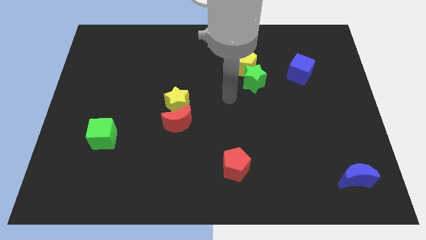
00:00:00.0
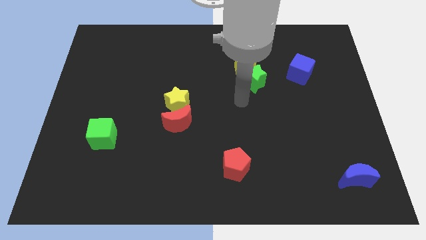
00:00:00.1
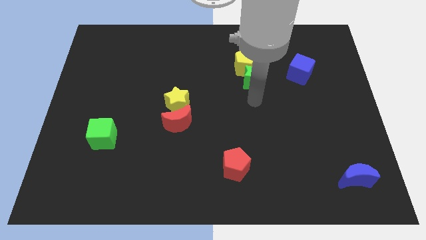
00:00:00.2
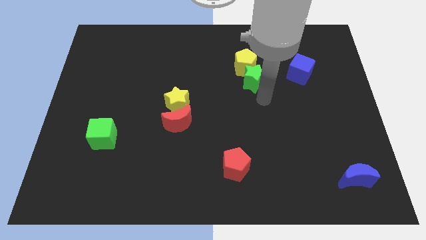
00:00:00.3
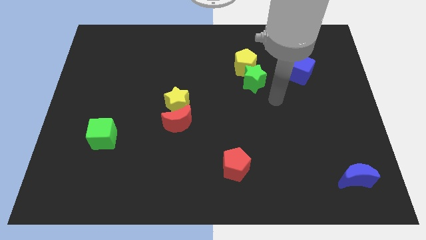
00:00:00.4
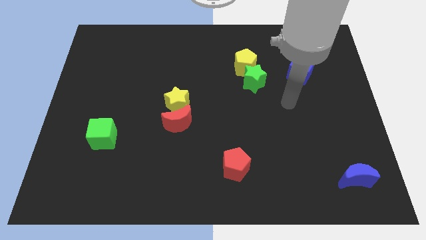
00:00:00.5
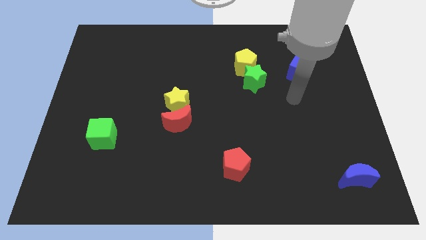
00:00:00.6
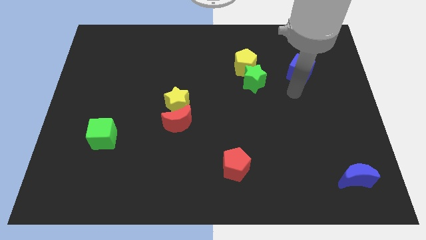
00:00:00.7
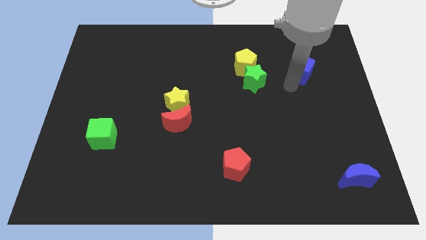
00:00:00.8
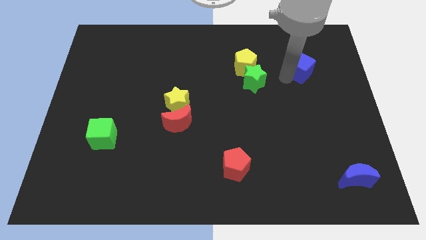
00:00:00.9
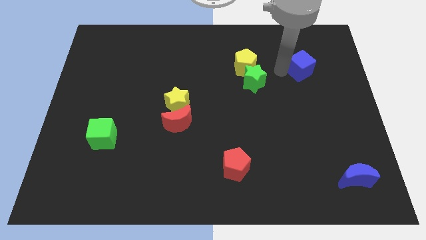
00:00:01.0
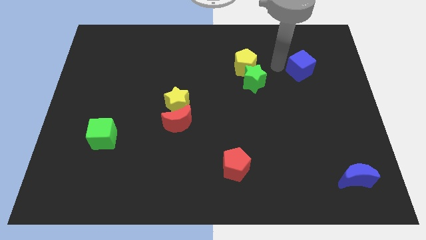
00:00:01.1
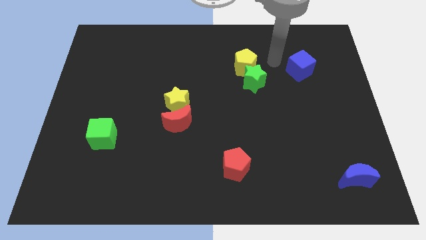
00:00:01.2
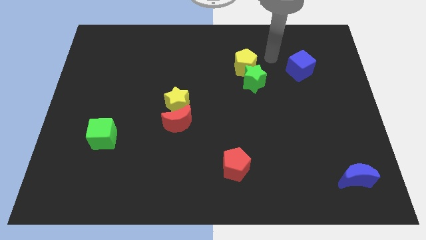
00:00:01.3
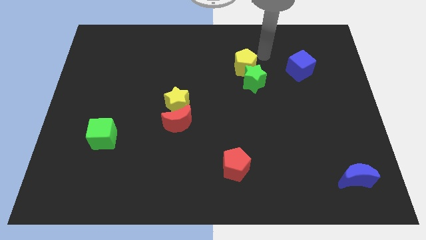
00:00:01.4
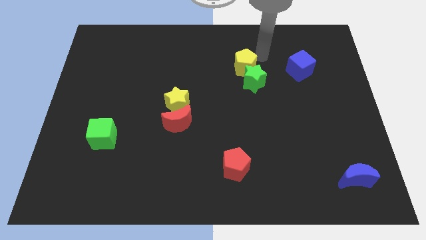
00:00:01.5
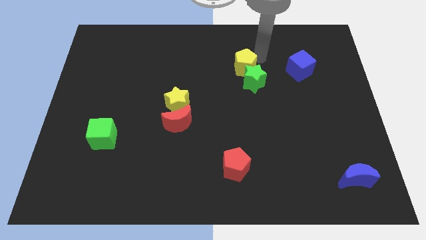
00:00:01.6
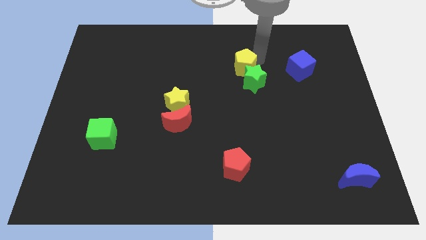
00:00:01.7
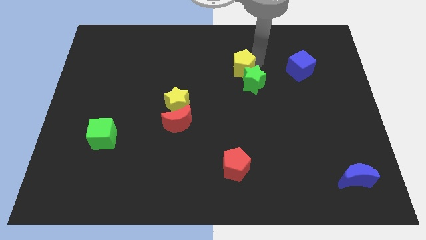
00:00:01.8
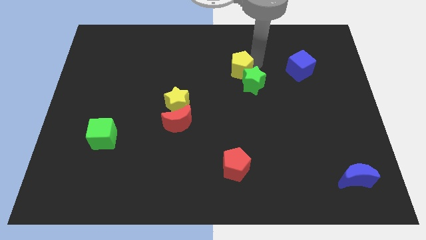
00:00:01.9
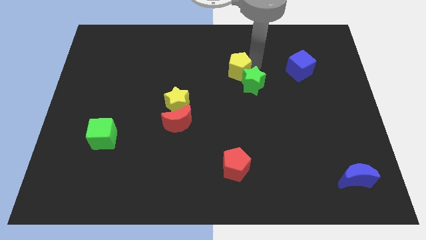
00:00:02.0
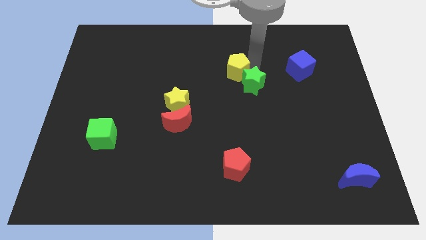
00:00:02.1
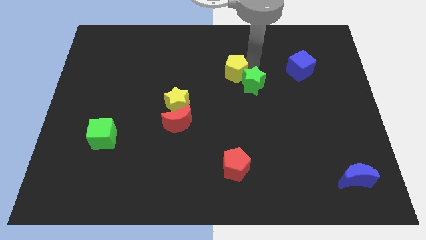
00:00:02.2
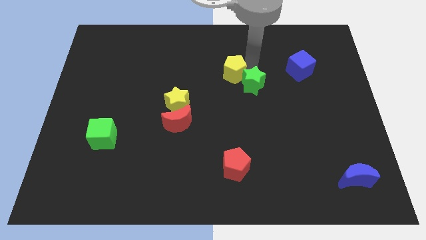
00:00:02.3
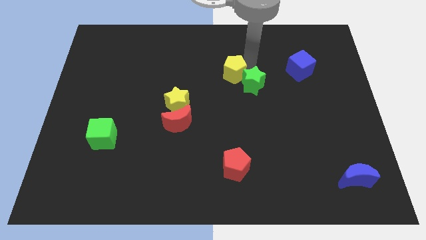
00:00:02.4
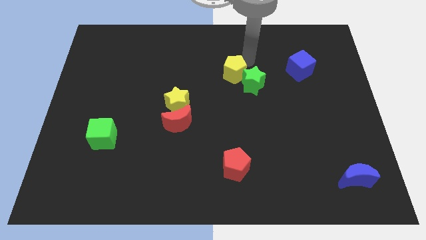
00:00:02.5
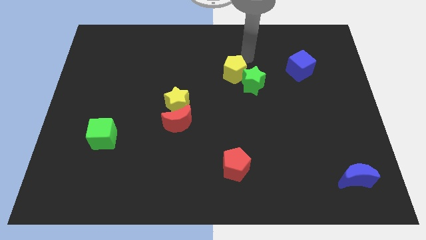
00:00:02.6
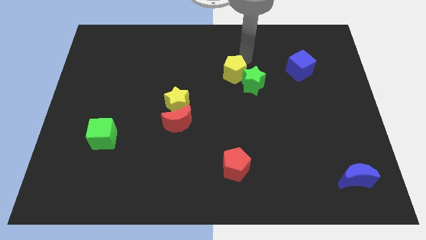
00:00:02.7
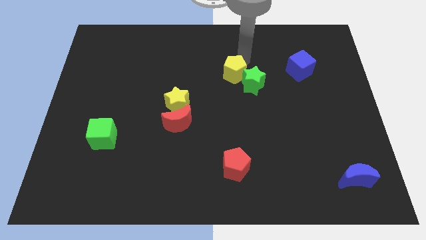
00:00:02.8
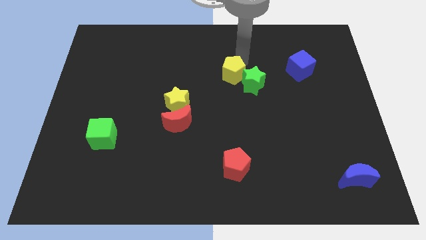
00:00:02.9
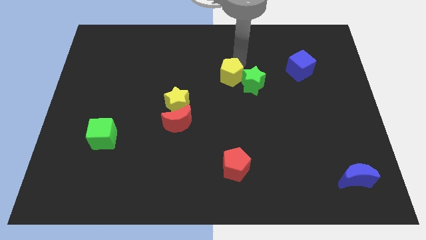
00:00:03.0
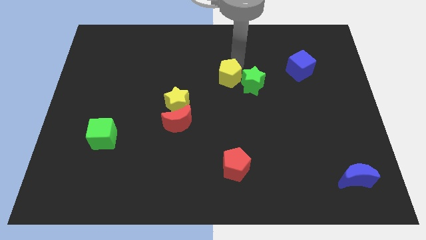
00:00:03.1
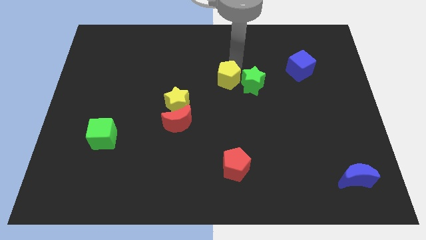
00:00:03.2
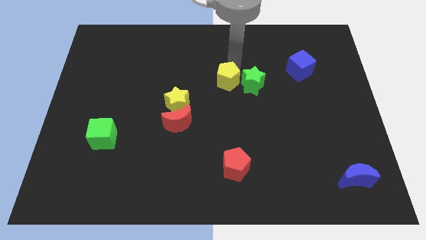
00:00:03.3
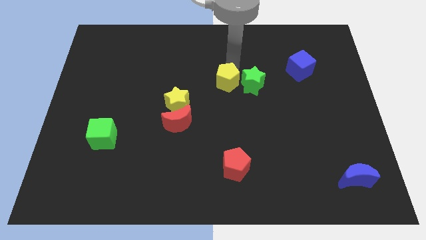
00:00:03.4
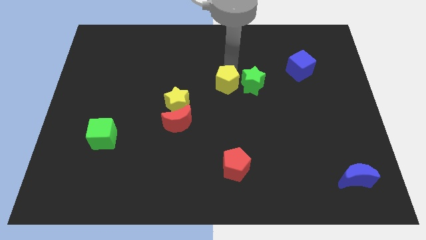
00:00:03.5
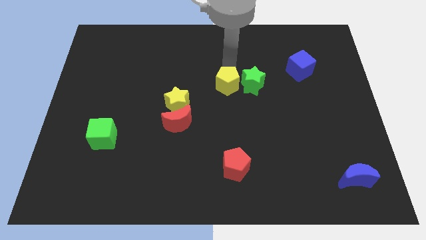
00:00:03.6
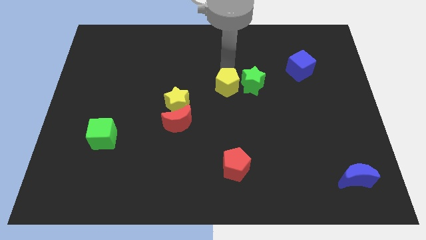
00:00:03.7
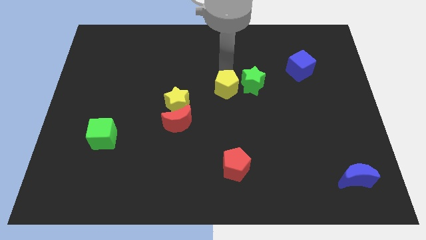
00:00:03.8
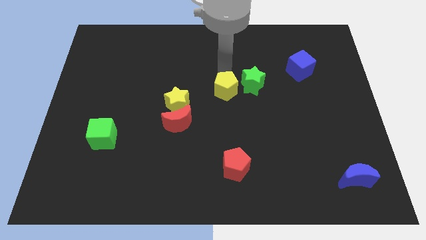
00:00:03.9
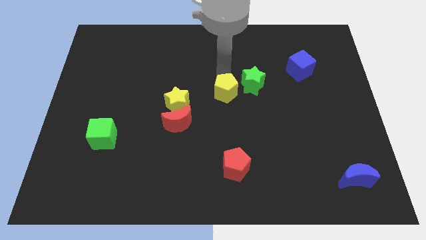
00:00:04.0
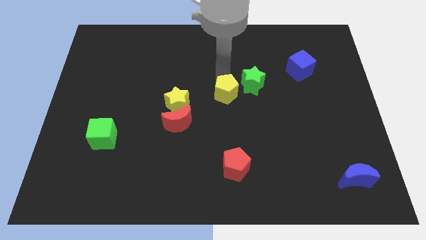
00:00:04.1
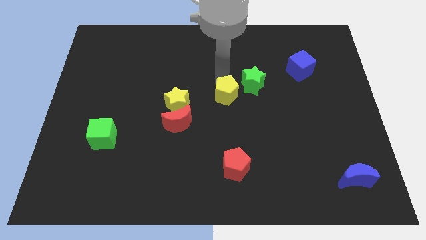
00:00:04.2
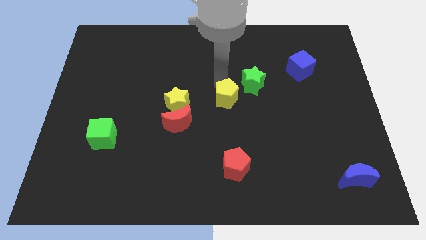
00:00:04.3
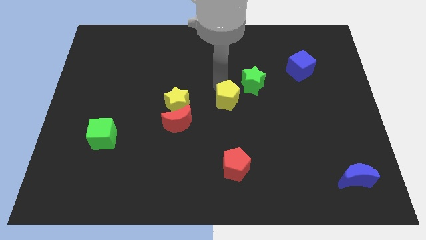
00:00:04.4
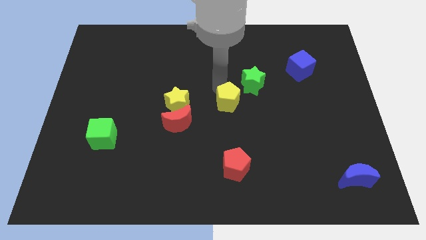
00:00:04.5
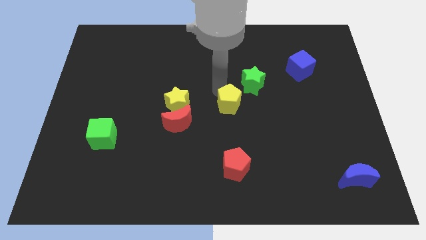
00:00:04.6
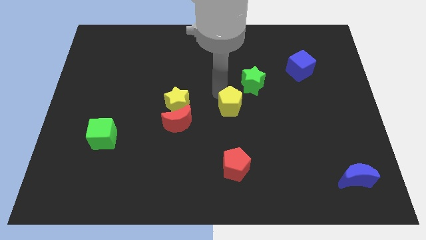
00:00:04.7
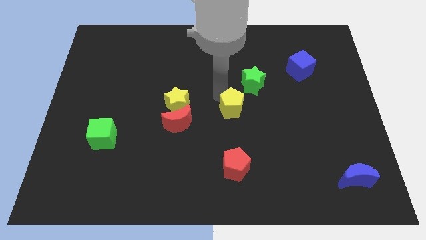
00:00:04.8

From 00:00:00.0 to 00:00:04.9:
slide the yellow pentagon to the right side of the red moon

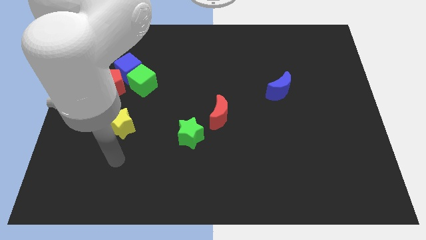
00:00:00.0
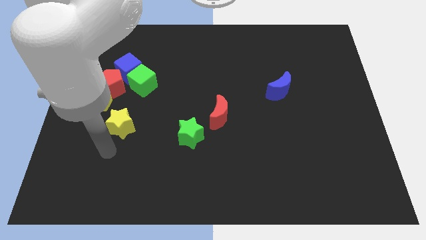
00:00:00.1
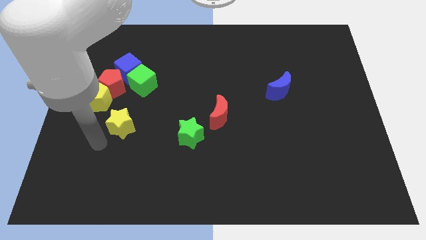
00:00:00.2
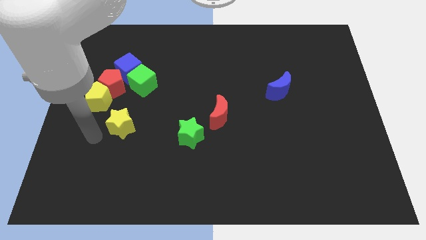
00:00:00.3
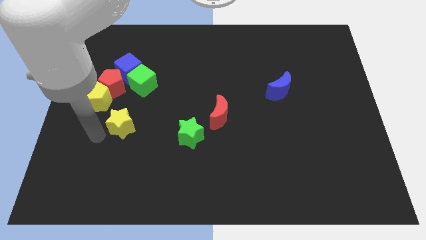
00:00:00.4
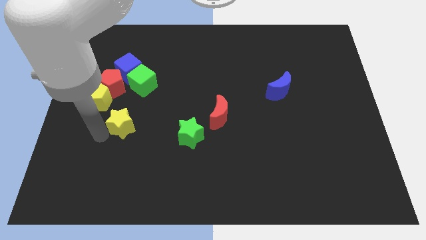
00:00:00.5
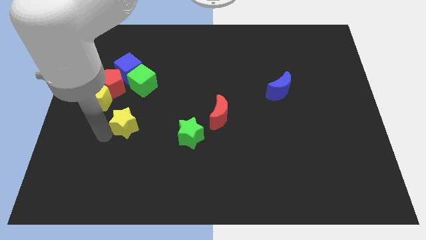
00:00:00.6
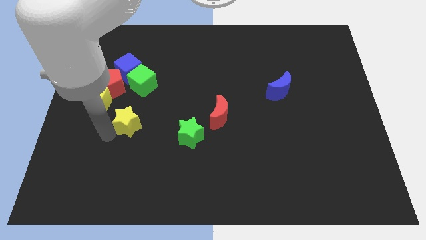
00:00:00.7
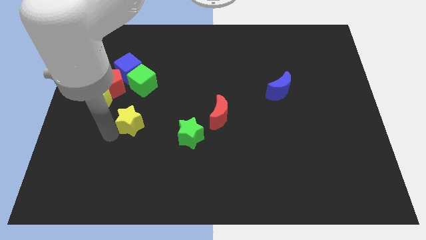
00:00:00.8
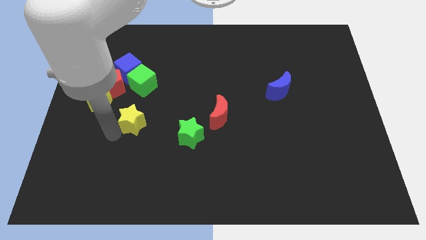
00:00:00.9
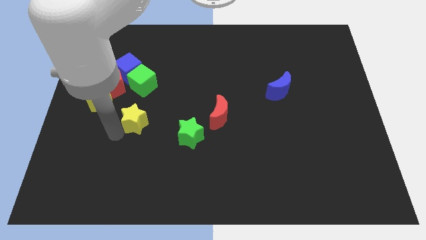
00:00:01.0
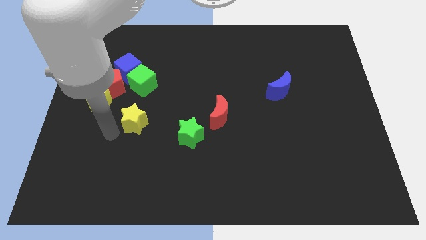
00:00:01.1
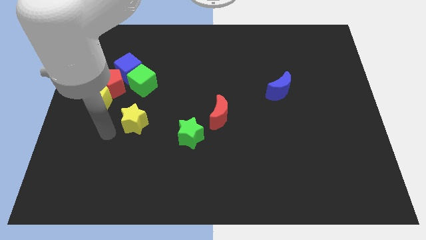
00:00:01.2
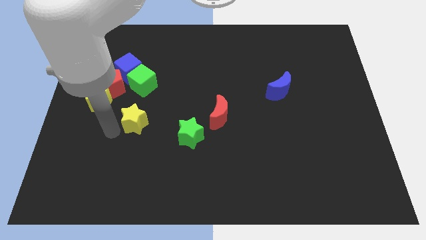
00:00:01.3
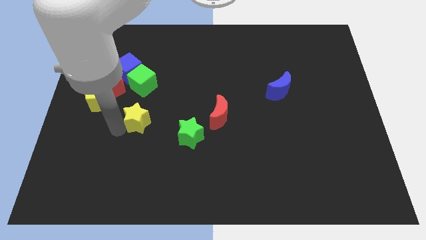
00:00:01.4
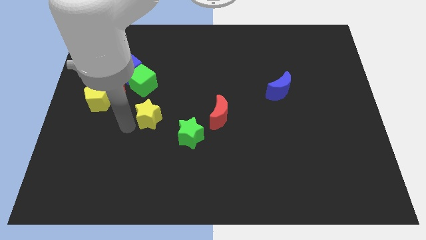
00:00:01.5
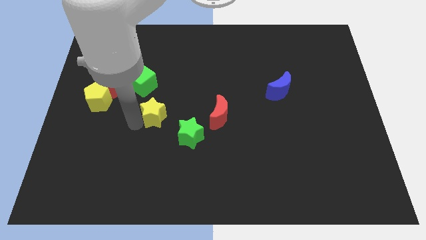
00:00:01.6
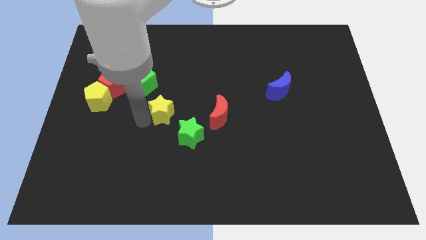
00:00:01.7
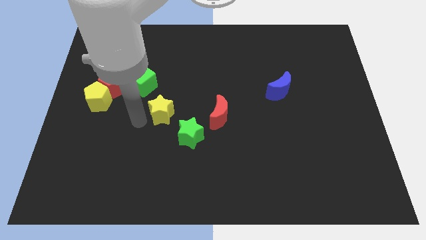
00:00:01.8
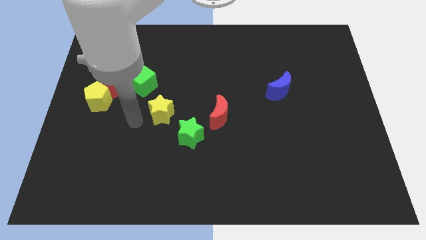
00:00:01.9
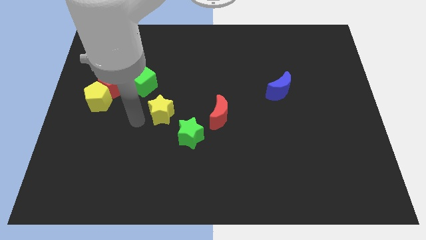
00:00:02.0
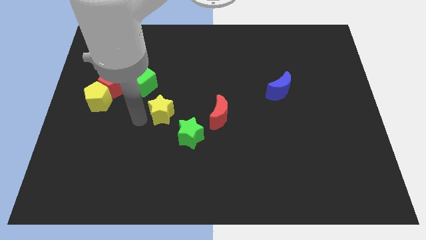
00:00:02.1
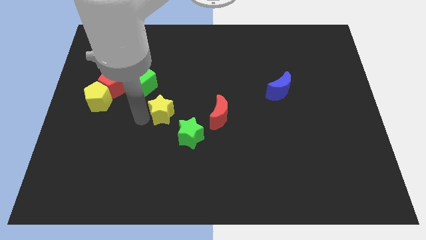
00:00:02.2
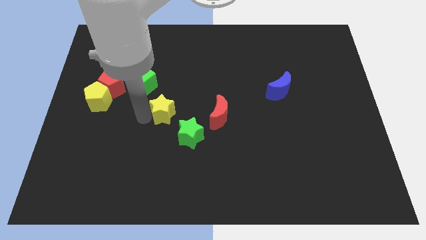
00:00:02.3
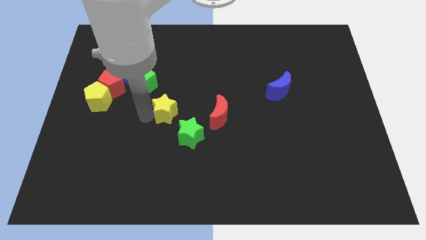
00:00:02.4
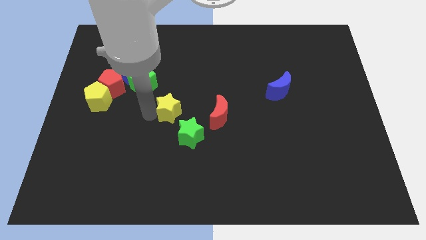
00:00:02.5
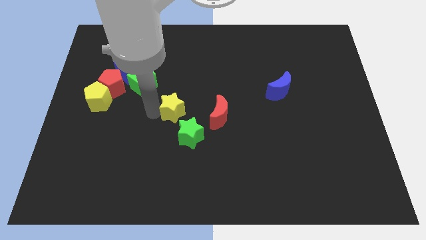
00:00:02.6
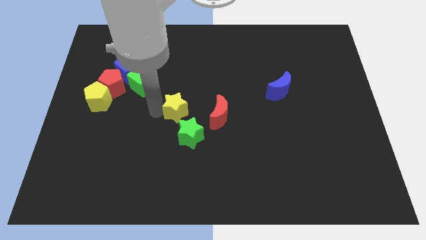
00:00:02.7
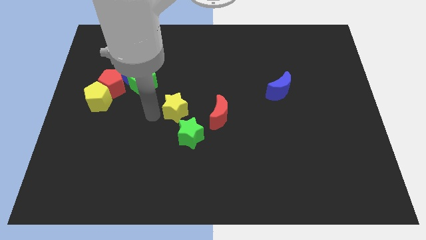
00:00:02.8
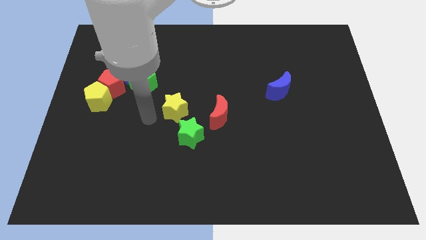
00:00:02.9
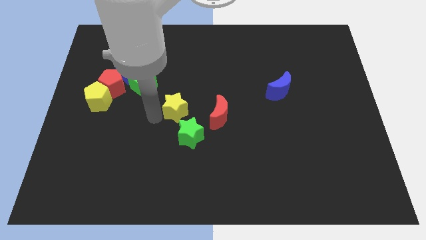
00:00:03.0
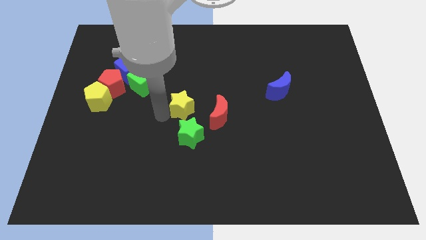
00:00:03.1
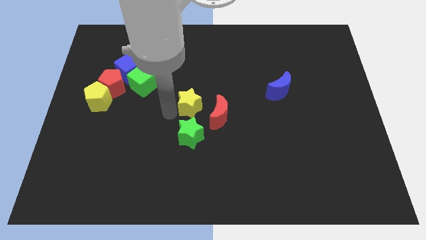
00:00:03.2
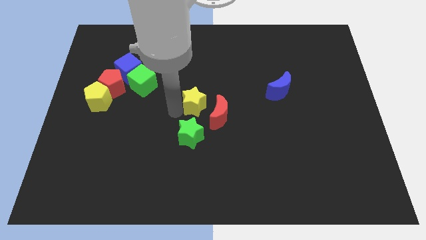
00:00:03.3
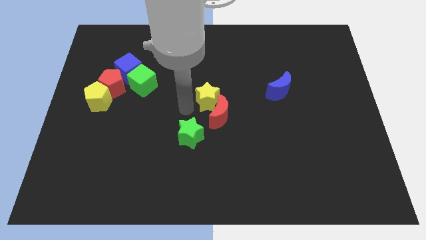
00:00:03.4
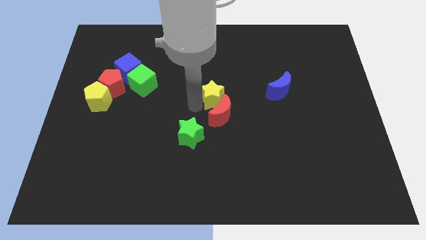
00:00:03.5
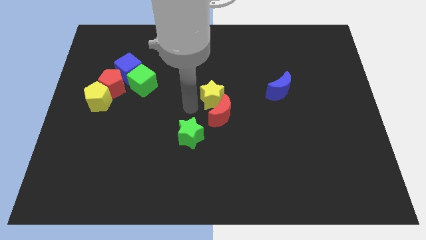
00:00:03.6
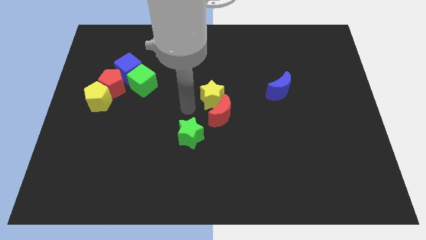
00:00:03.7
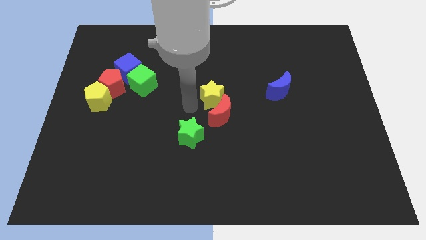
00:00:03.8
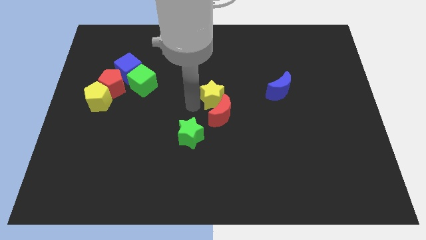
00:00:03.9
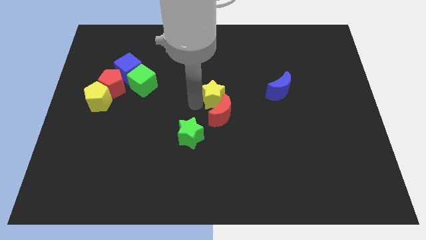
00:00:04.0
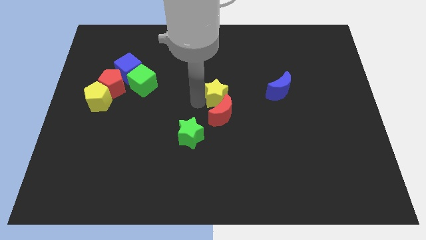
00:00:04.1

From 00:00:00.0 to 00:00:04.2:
move the yellow star to the left side of the blue moon
